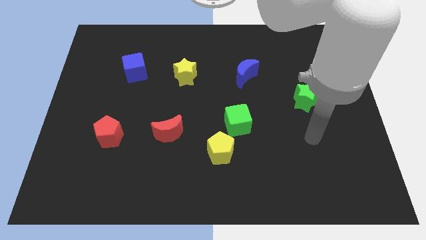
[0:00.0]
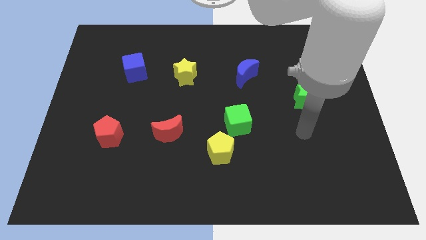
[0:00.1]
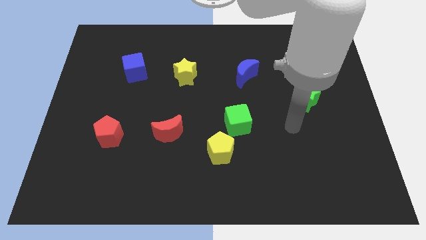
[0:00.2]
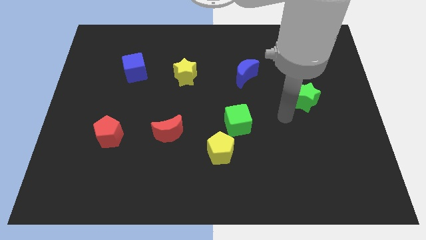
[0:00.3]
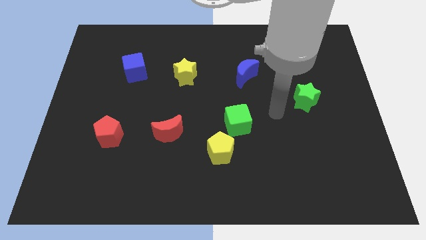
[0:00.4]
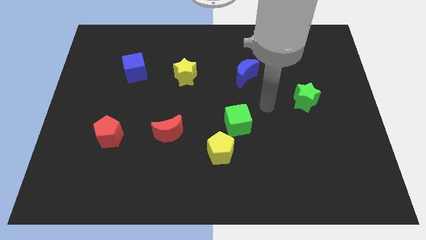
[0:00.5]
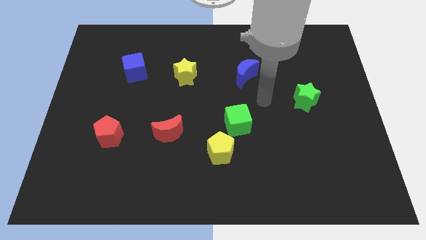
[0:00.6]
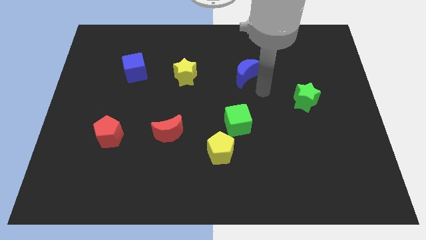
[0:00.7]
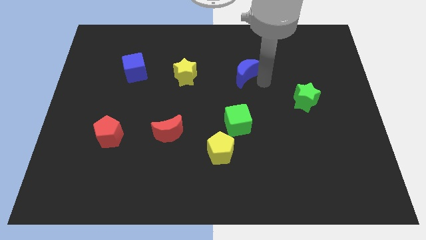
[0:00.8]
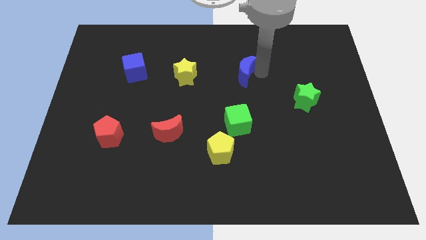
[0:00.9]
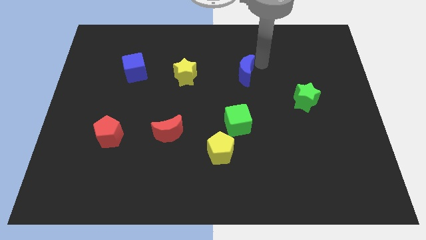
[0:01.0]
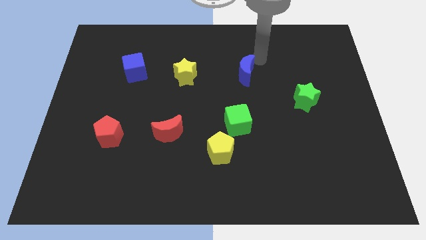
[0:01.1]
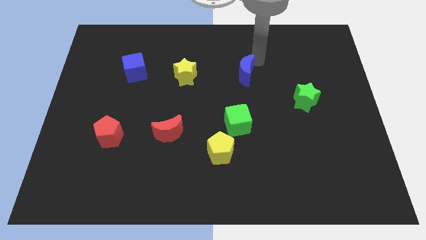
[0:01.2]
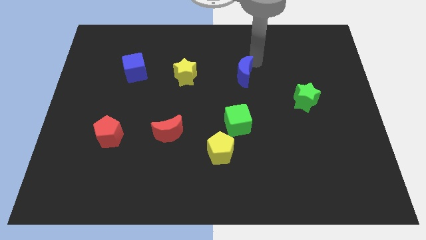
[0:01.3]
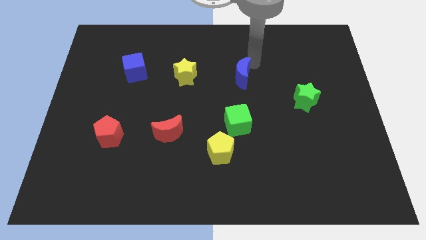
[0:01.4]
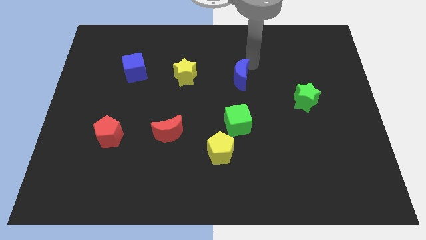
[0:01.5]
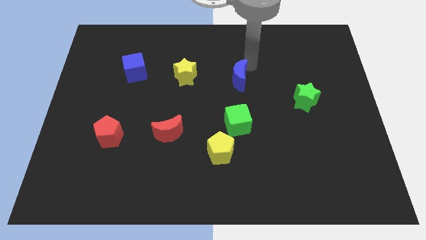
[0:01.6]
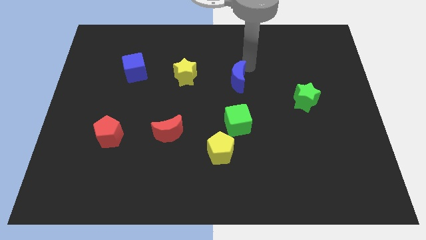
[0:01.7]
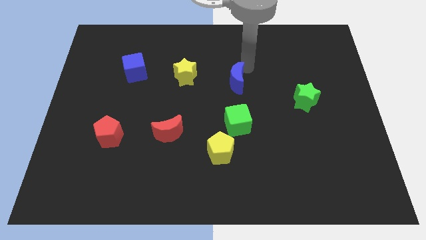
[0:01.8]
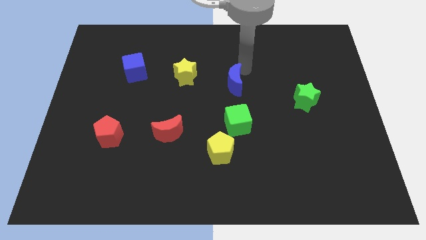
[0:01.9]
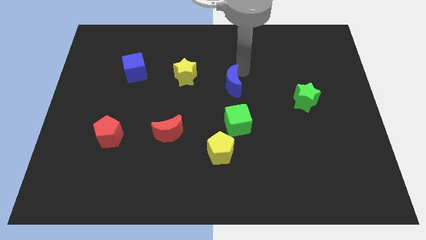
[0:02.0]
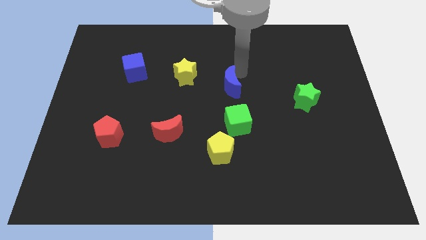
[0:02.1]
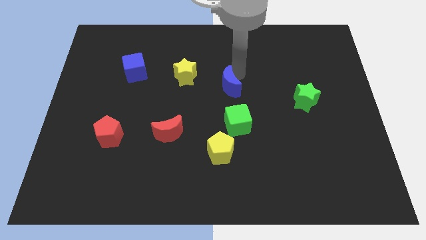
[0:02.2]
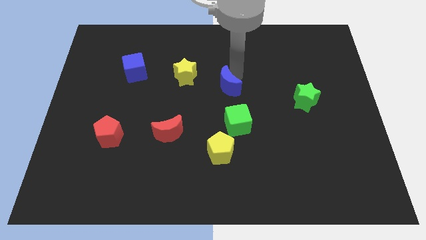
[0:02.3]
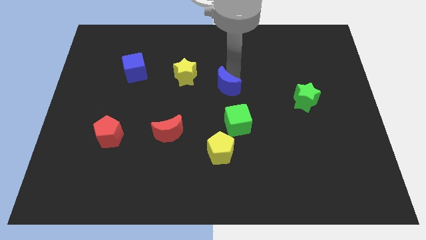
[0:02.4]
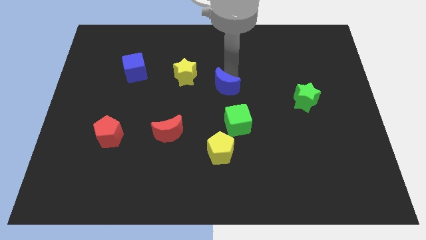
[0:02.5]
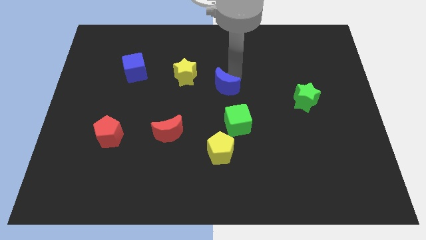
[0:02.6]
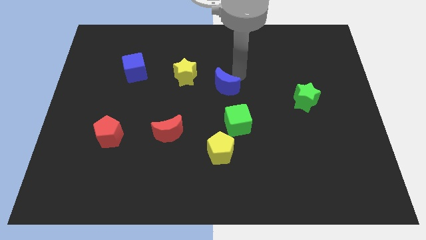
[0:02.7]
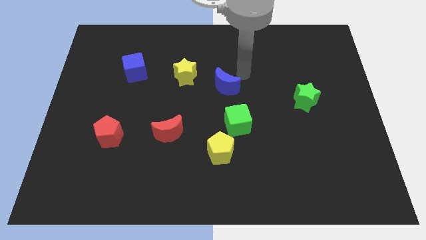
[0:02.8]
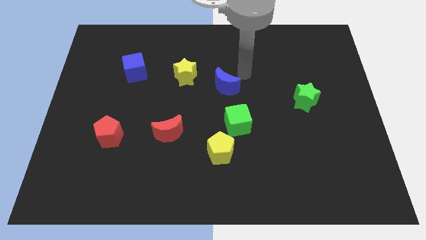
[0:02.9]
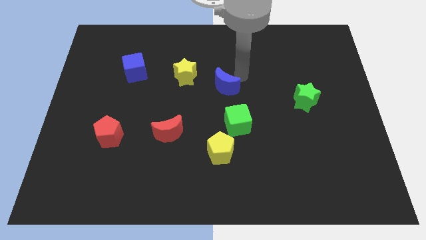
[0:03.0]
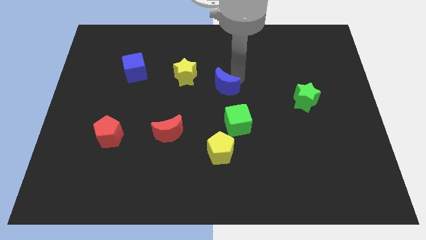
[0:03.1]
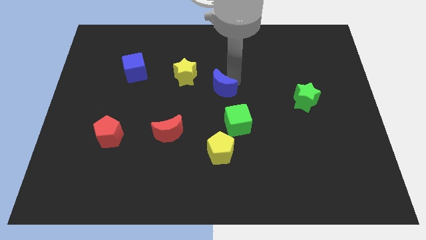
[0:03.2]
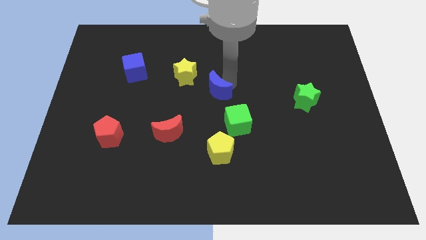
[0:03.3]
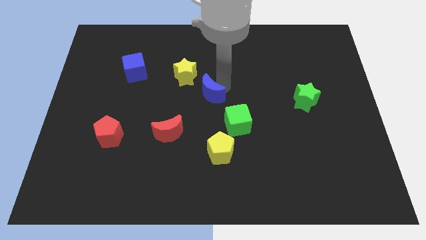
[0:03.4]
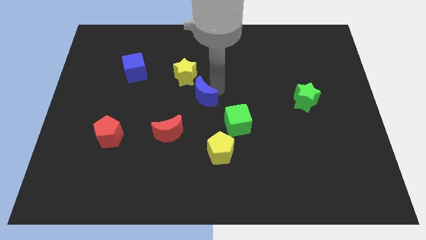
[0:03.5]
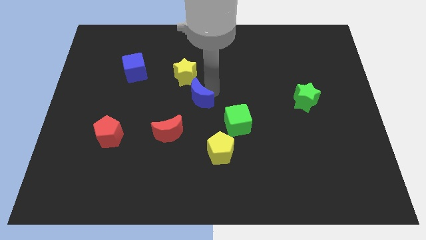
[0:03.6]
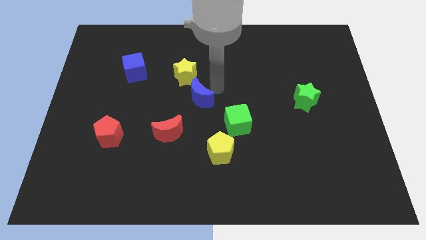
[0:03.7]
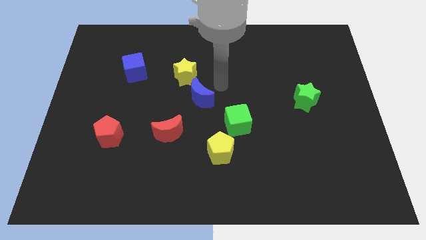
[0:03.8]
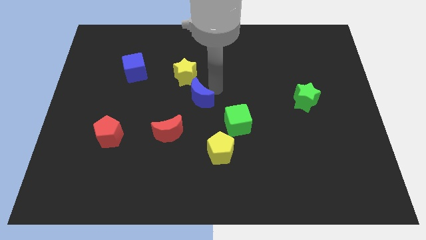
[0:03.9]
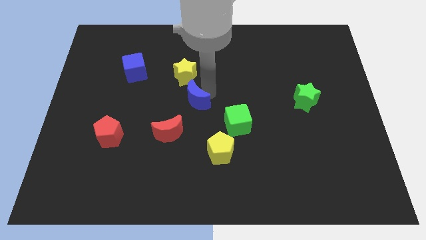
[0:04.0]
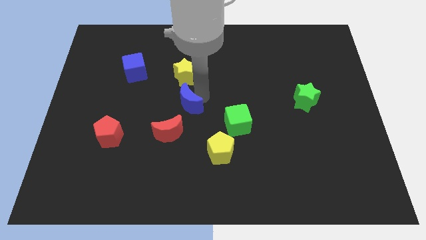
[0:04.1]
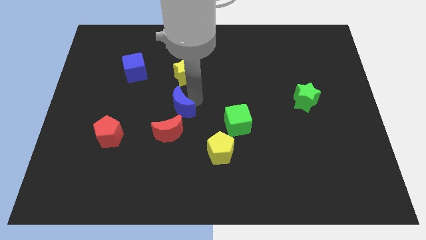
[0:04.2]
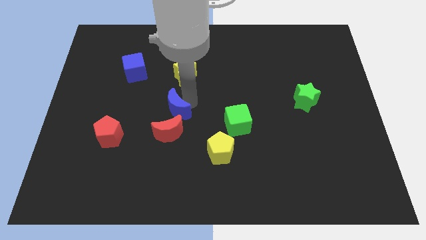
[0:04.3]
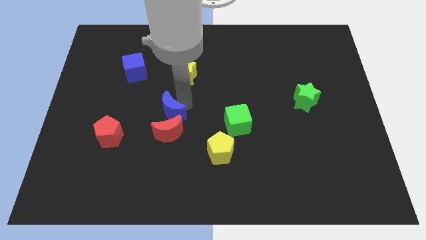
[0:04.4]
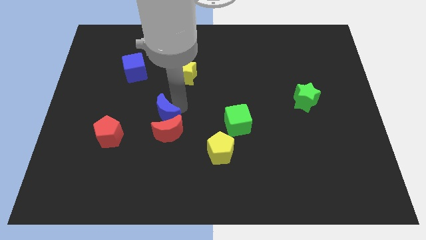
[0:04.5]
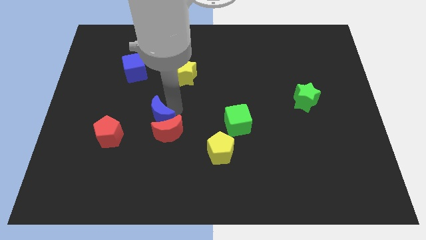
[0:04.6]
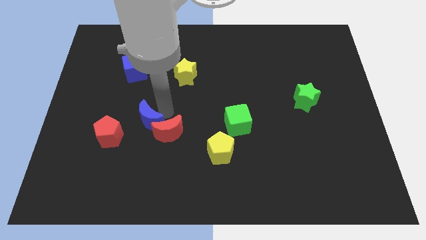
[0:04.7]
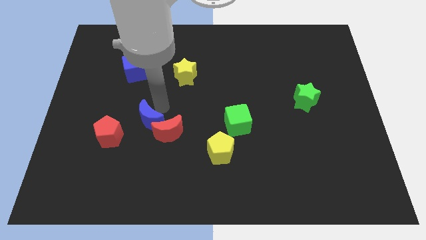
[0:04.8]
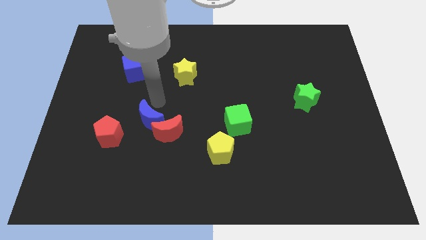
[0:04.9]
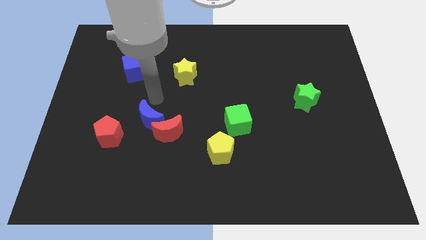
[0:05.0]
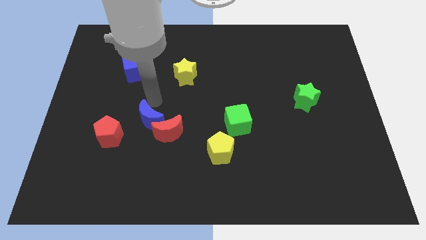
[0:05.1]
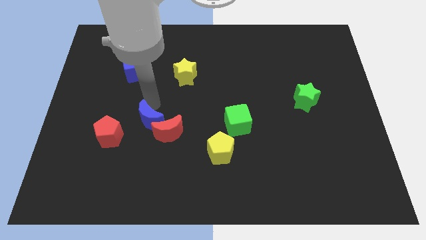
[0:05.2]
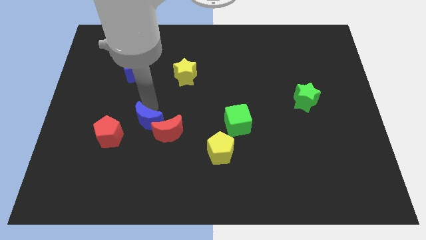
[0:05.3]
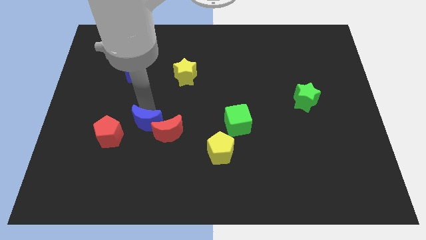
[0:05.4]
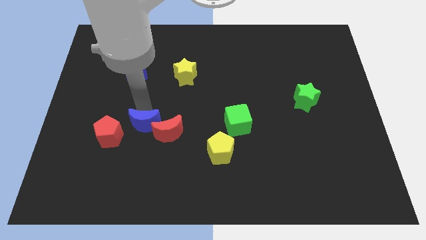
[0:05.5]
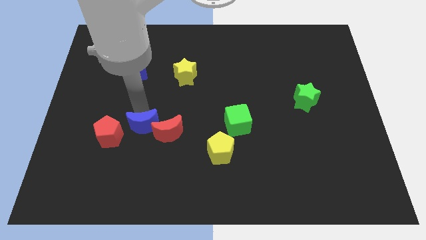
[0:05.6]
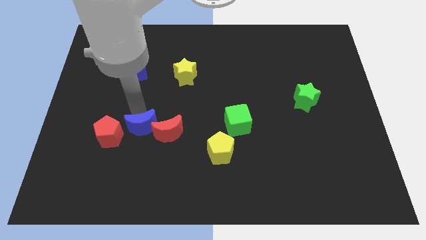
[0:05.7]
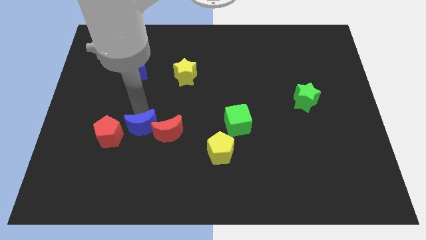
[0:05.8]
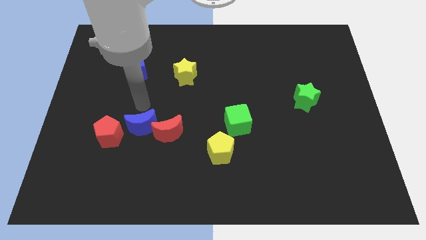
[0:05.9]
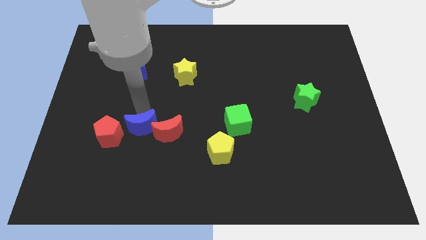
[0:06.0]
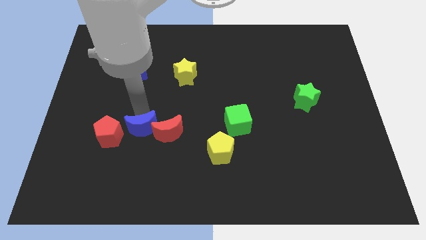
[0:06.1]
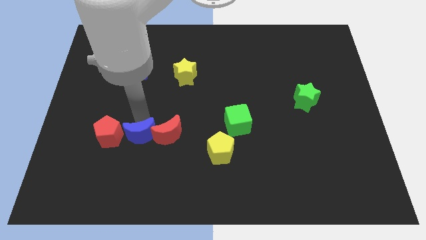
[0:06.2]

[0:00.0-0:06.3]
move the blue moon to the bottom left side of the red moon
